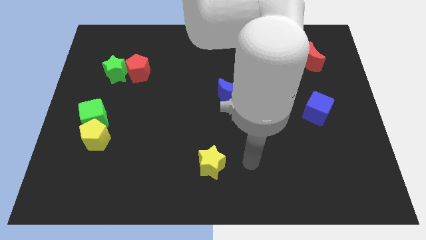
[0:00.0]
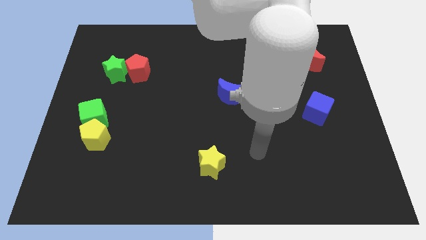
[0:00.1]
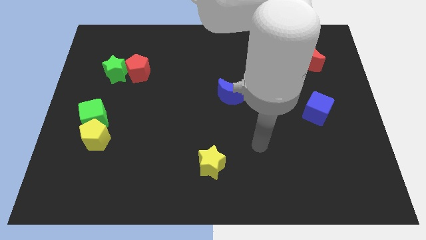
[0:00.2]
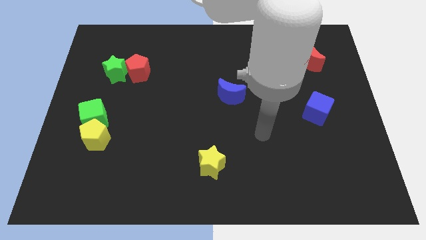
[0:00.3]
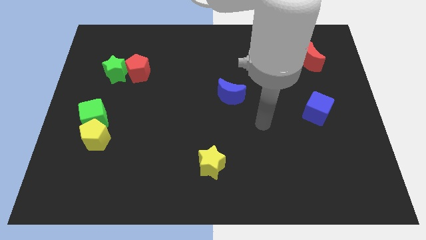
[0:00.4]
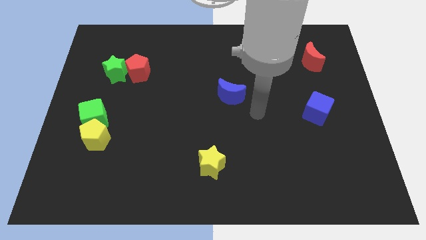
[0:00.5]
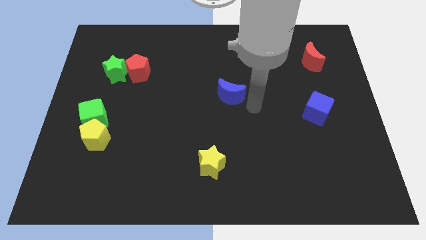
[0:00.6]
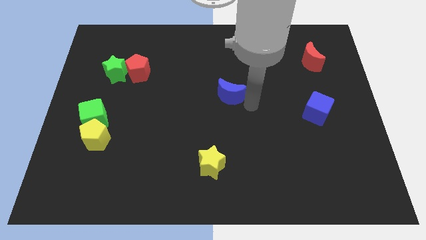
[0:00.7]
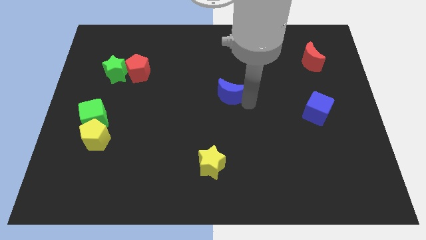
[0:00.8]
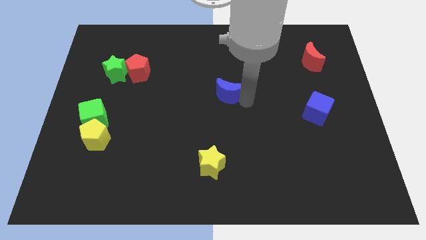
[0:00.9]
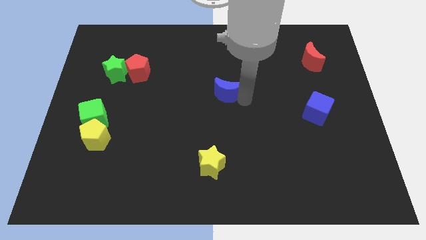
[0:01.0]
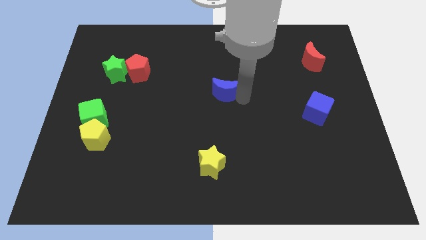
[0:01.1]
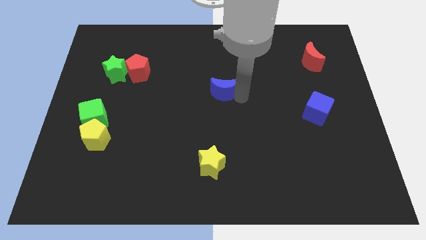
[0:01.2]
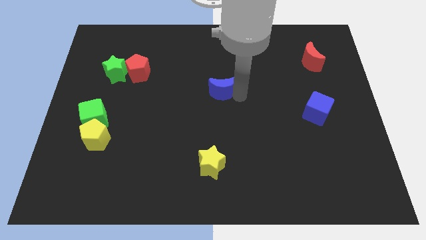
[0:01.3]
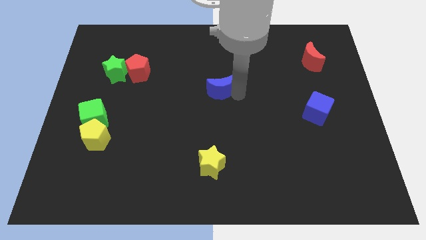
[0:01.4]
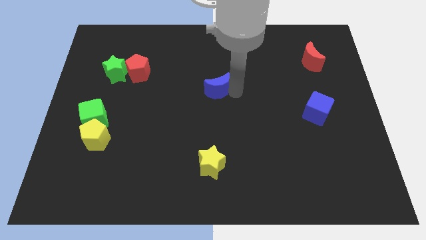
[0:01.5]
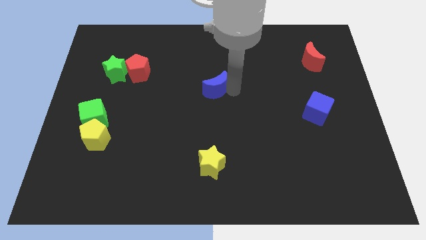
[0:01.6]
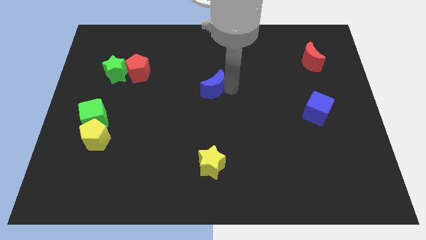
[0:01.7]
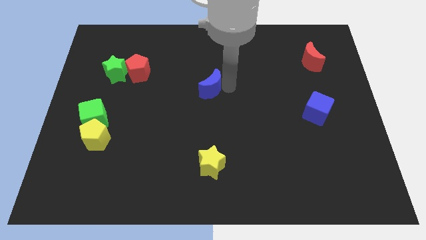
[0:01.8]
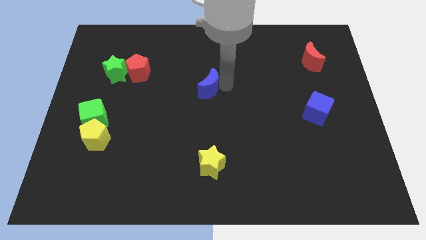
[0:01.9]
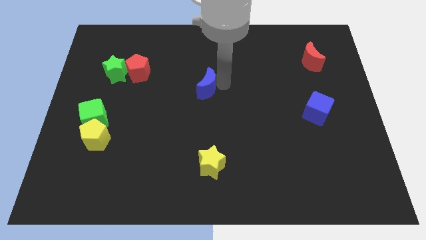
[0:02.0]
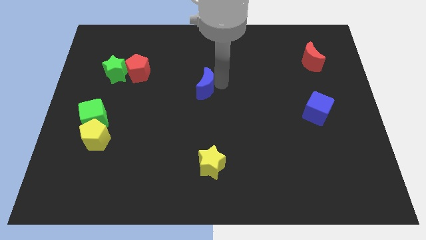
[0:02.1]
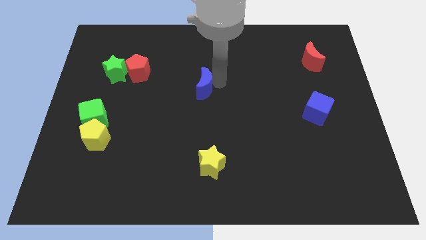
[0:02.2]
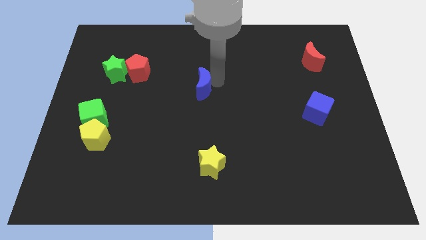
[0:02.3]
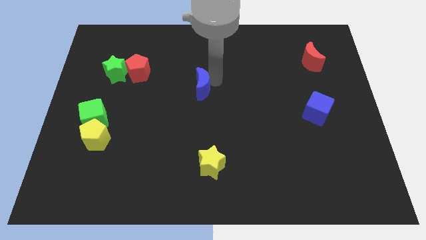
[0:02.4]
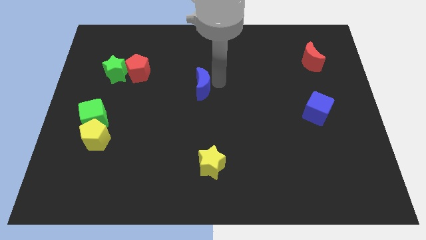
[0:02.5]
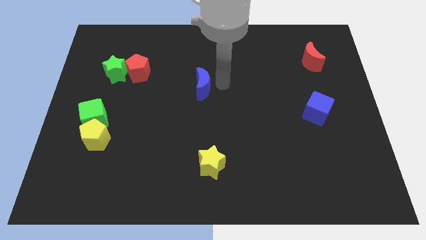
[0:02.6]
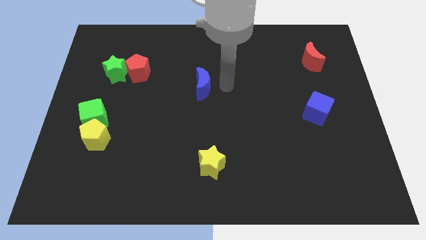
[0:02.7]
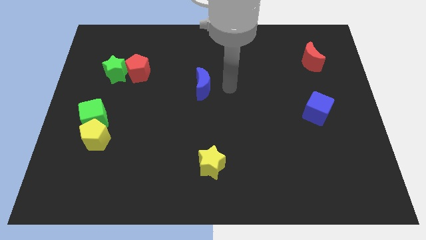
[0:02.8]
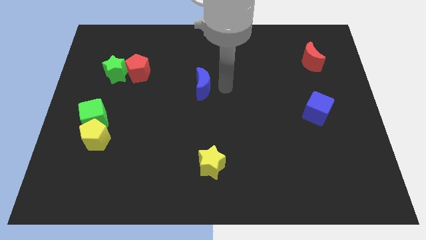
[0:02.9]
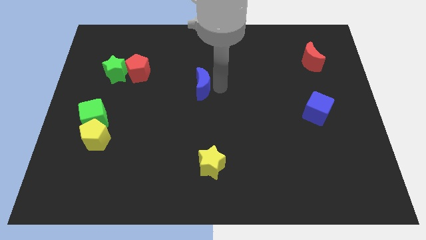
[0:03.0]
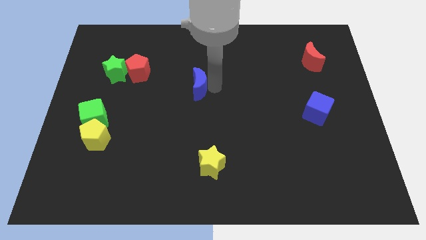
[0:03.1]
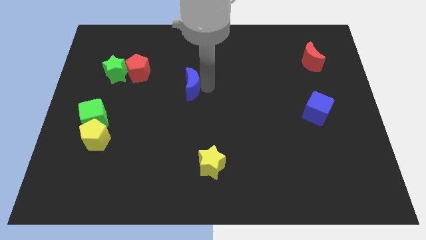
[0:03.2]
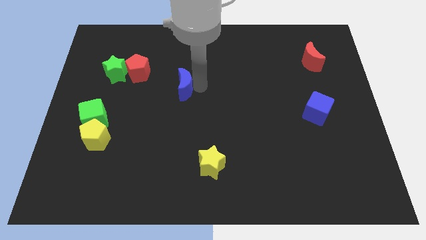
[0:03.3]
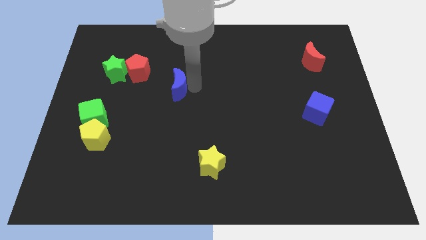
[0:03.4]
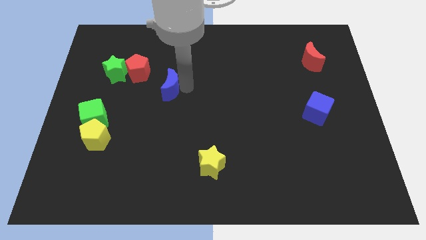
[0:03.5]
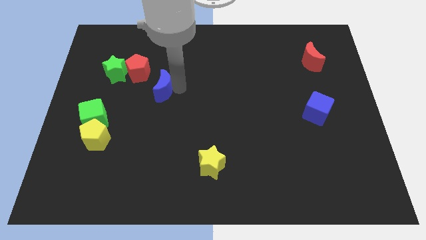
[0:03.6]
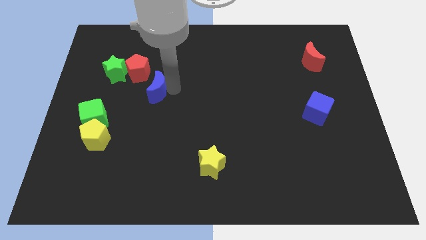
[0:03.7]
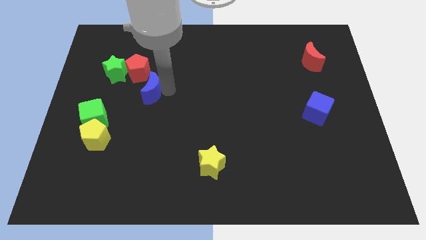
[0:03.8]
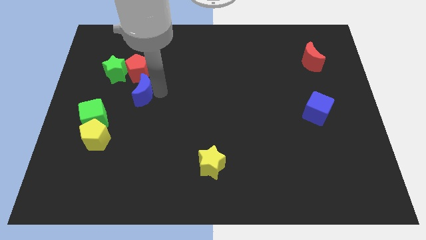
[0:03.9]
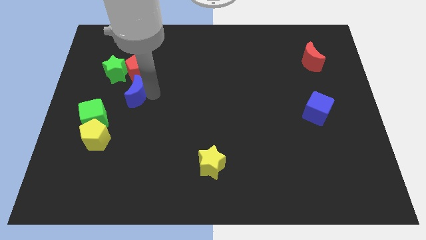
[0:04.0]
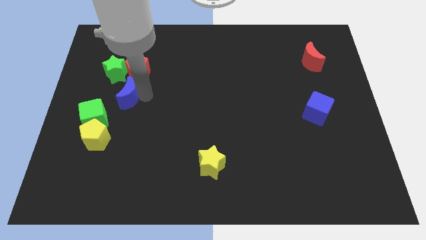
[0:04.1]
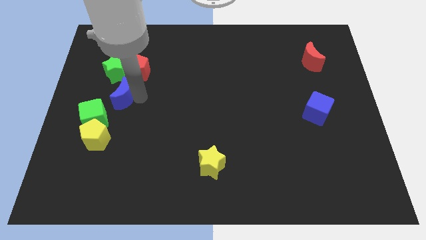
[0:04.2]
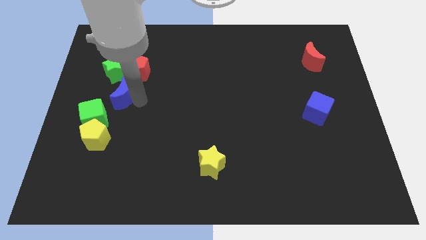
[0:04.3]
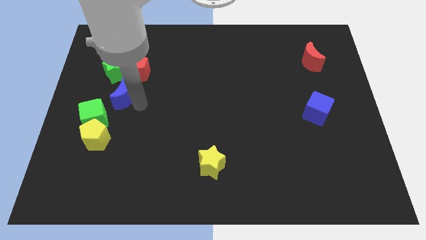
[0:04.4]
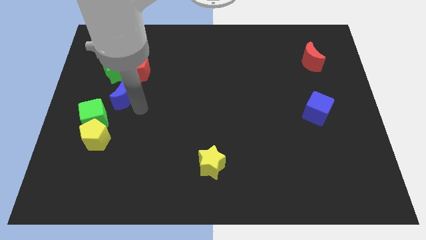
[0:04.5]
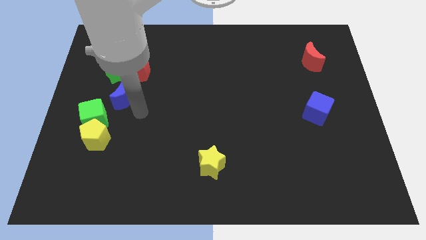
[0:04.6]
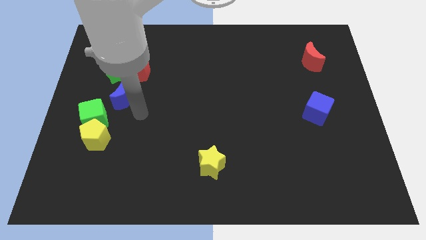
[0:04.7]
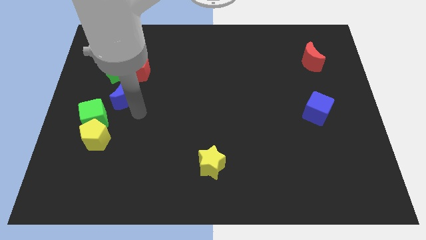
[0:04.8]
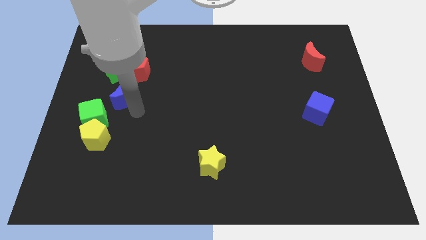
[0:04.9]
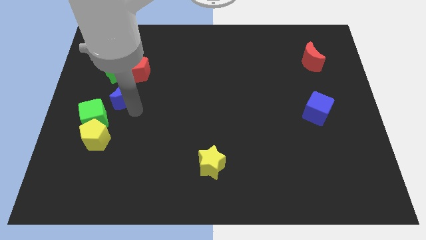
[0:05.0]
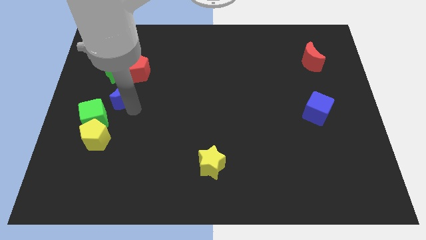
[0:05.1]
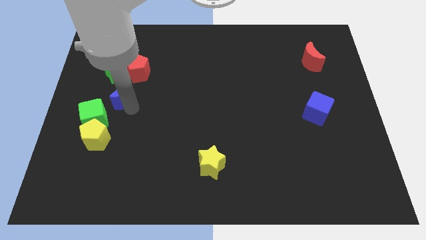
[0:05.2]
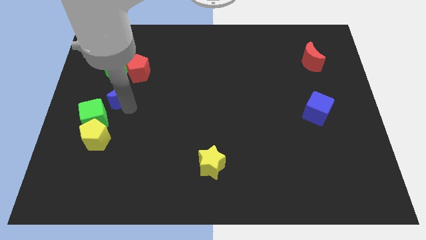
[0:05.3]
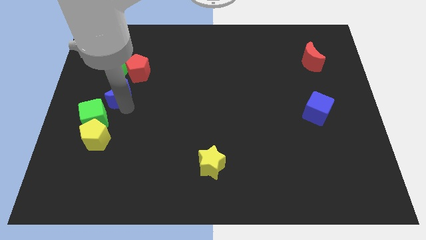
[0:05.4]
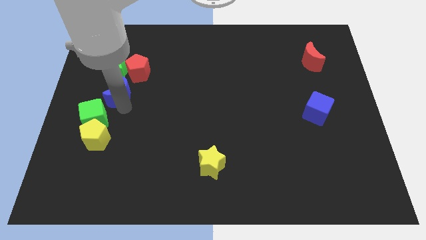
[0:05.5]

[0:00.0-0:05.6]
slide the blue moon to the top side of the green cube

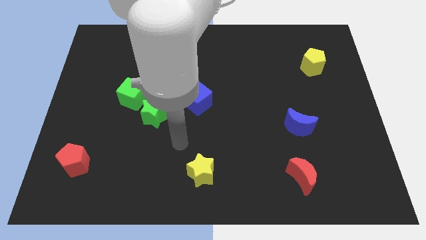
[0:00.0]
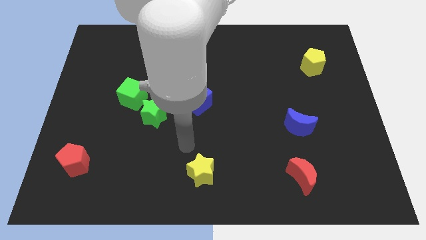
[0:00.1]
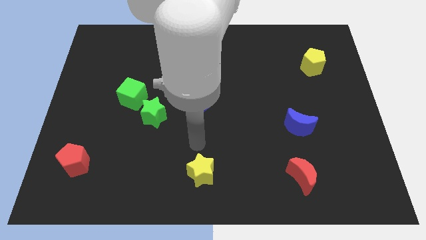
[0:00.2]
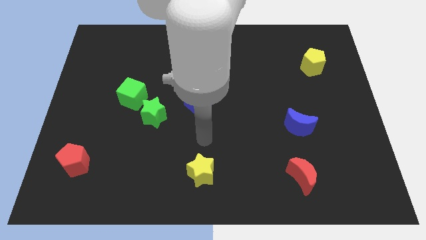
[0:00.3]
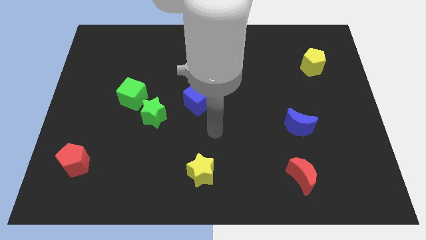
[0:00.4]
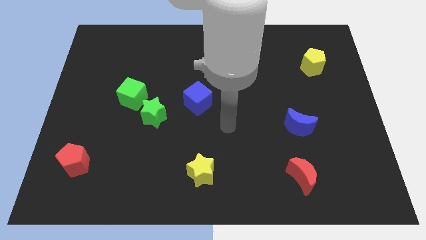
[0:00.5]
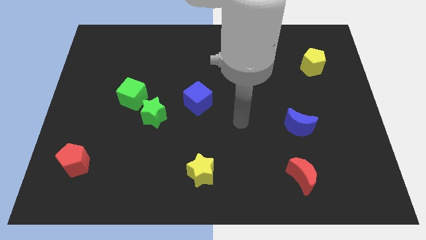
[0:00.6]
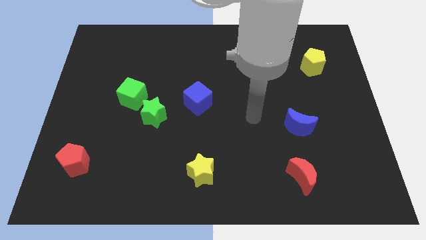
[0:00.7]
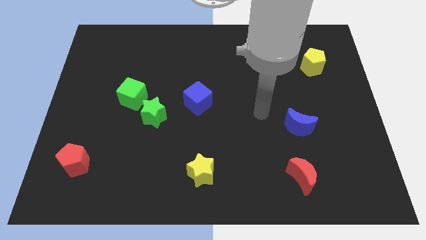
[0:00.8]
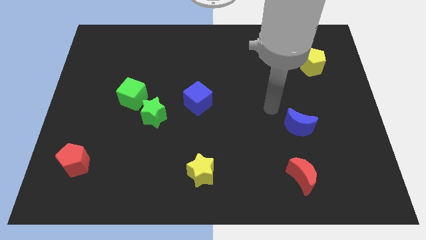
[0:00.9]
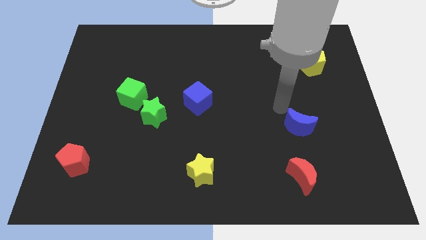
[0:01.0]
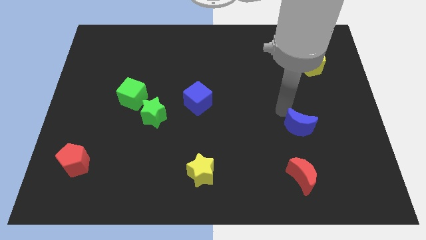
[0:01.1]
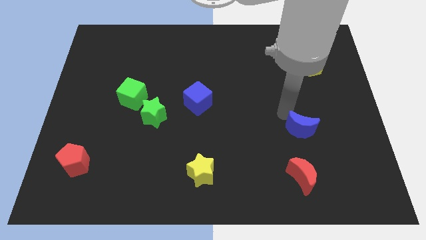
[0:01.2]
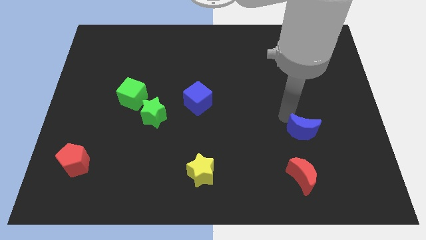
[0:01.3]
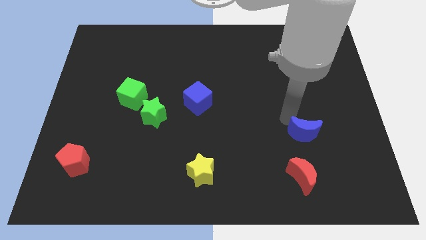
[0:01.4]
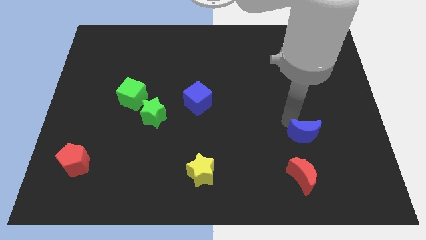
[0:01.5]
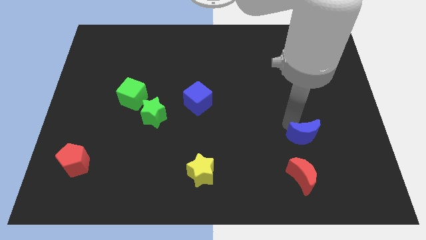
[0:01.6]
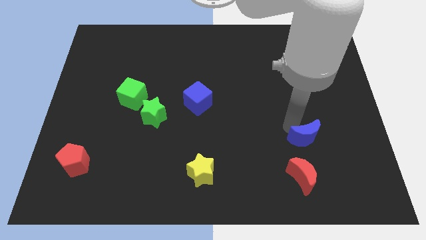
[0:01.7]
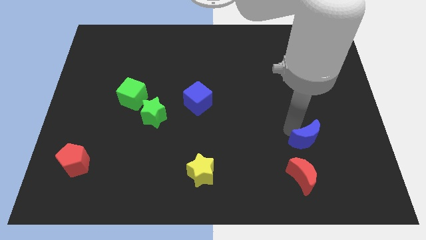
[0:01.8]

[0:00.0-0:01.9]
slide the blue moon to the top right side of the red moon

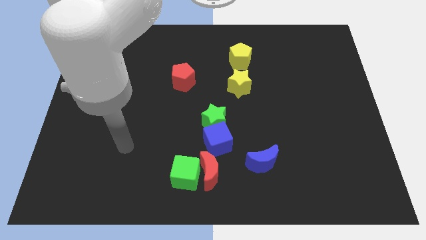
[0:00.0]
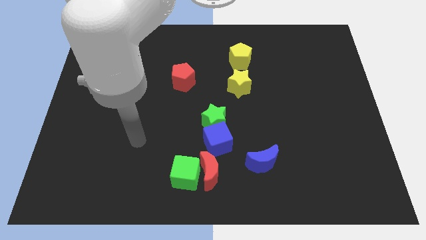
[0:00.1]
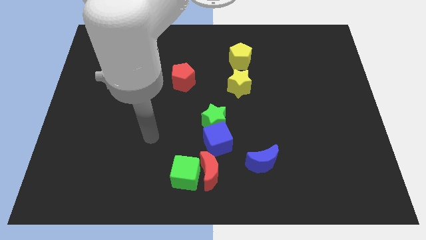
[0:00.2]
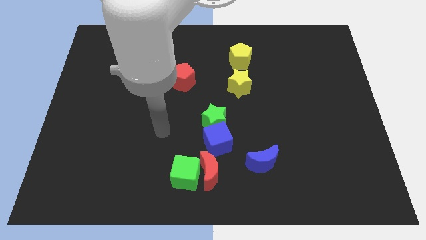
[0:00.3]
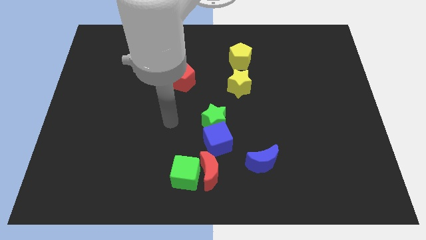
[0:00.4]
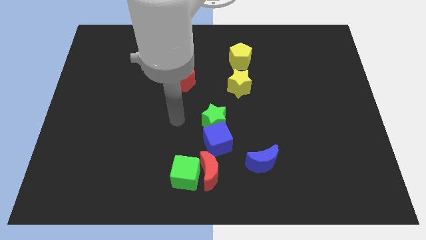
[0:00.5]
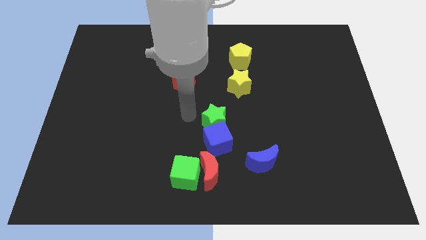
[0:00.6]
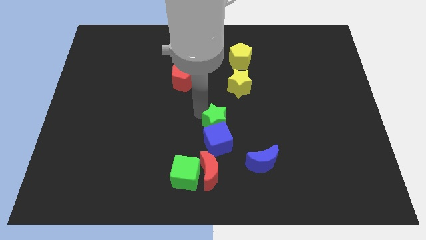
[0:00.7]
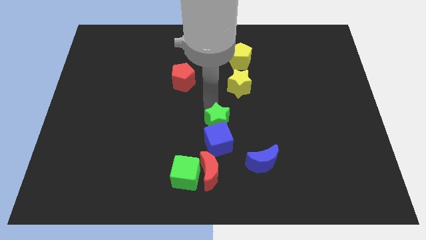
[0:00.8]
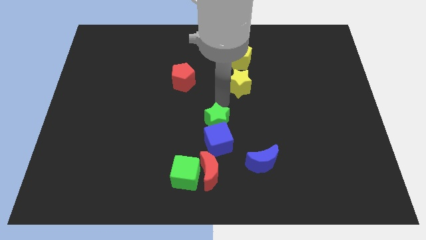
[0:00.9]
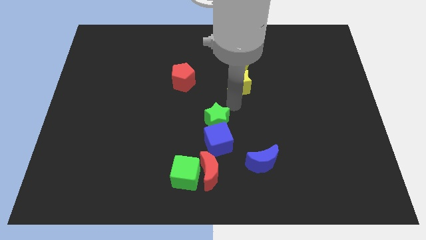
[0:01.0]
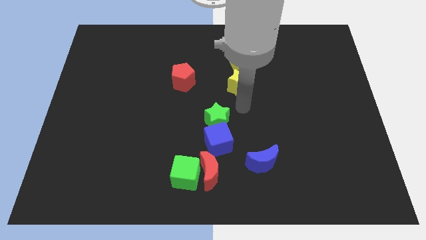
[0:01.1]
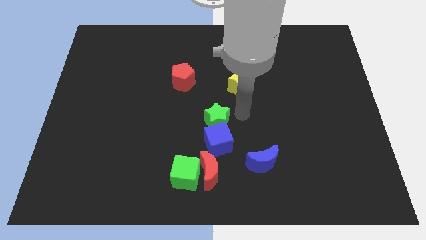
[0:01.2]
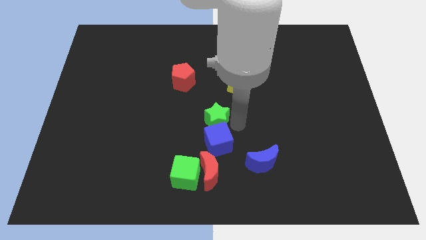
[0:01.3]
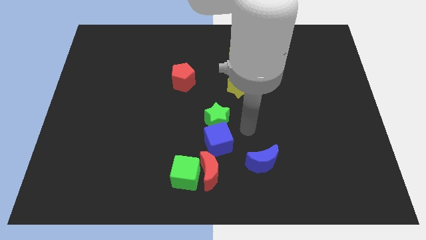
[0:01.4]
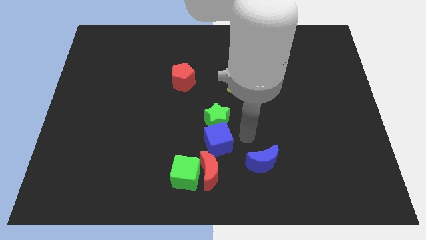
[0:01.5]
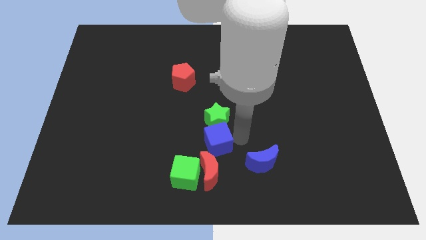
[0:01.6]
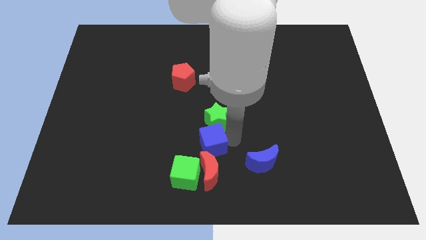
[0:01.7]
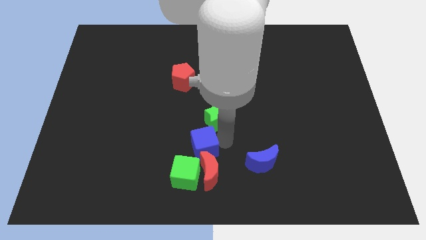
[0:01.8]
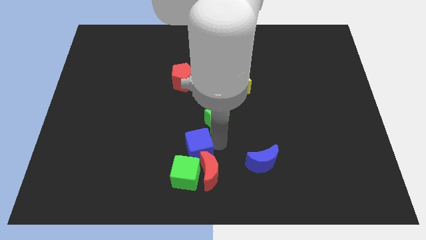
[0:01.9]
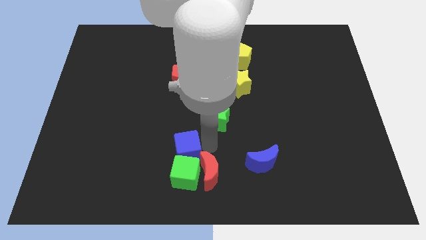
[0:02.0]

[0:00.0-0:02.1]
push the blue cube diagonally up and to the left of the green cube
